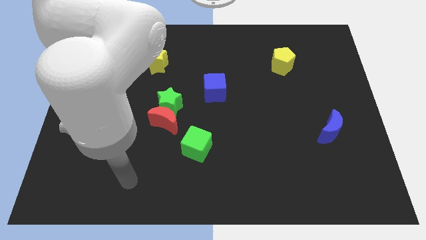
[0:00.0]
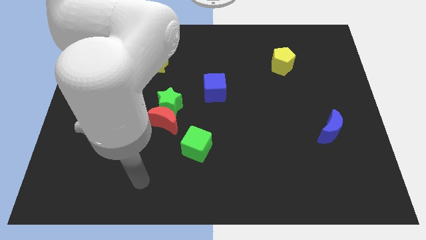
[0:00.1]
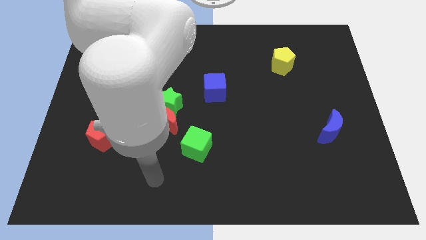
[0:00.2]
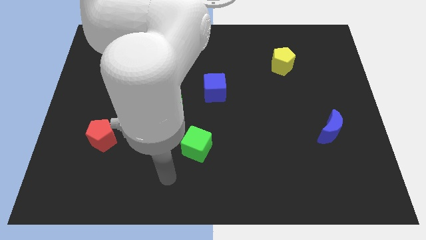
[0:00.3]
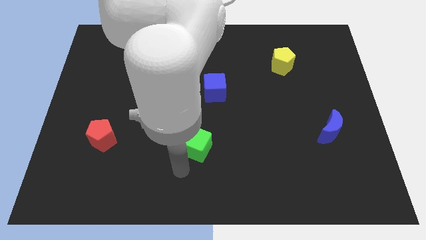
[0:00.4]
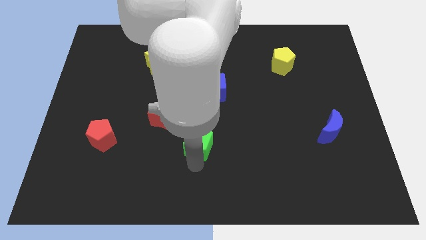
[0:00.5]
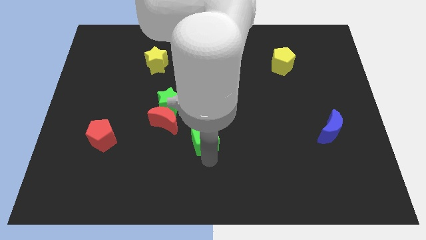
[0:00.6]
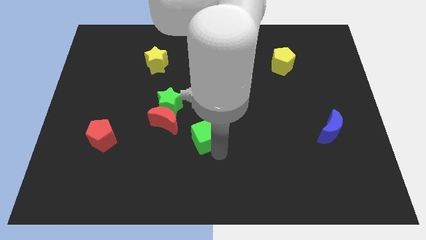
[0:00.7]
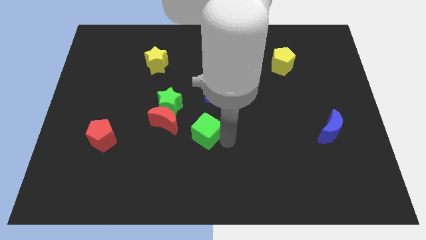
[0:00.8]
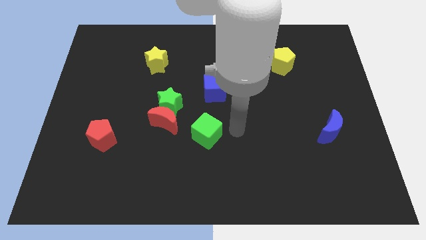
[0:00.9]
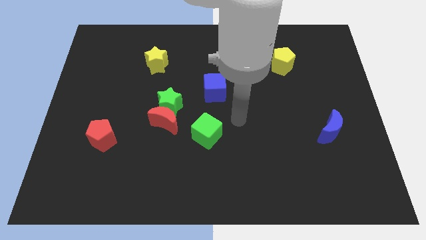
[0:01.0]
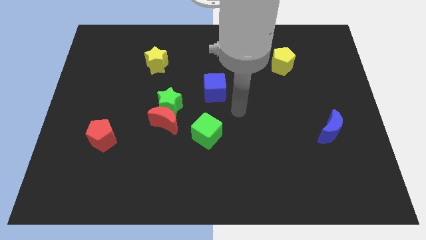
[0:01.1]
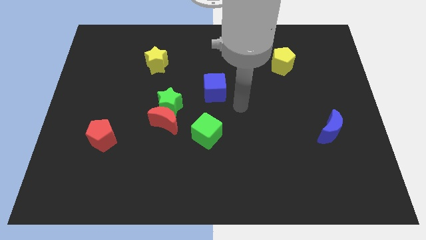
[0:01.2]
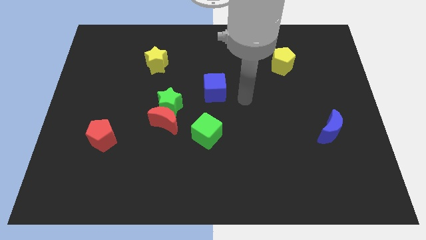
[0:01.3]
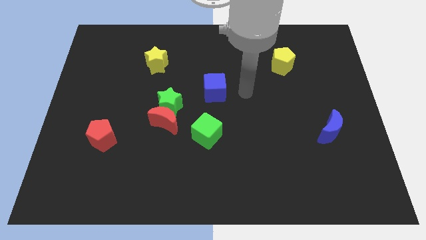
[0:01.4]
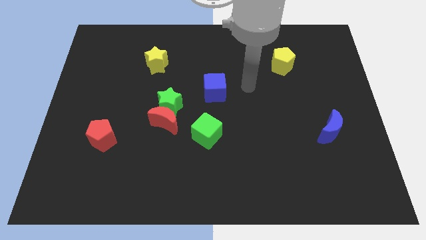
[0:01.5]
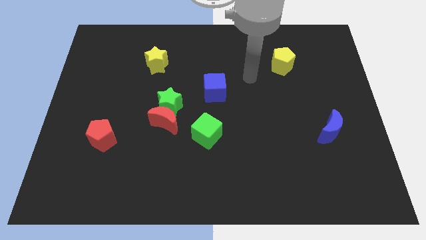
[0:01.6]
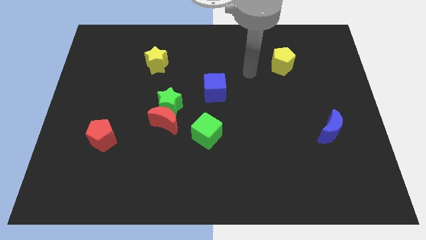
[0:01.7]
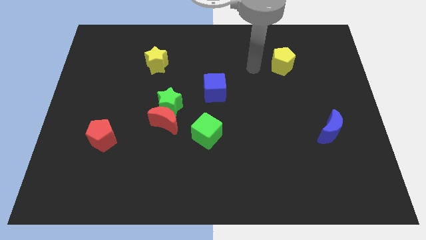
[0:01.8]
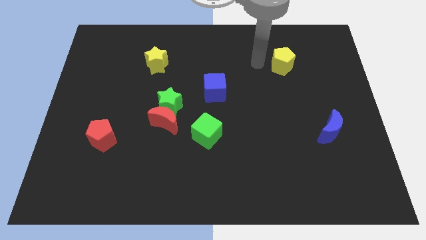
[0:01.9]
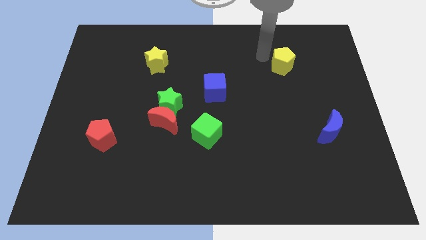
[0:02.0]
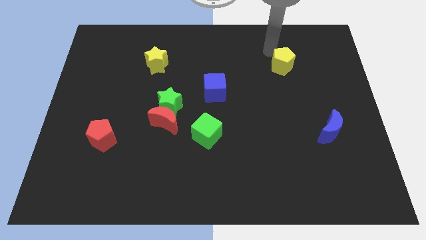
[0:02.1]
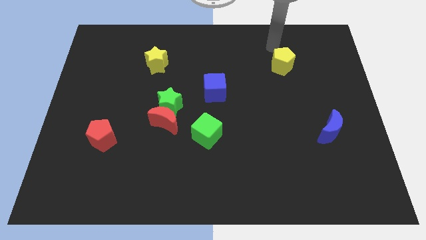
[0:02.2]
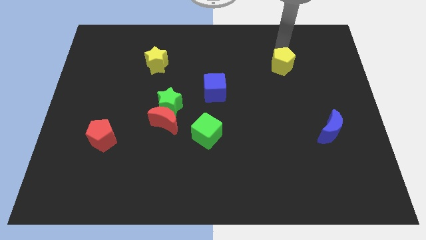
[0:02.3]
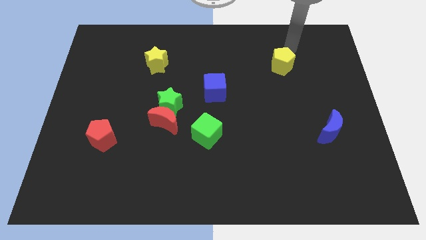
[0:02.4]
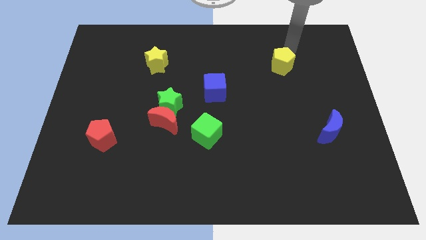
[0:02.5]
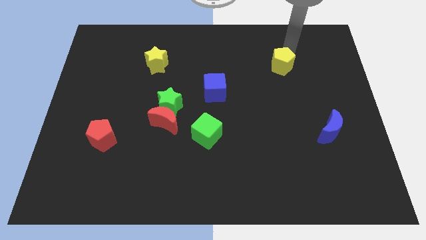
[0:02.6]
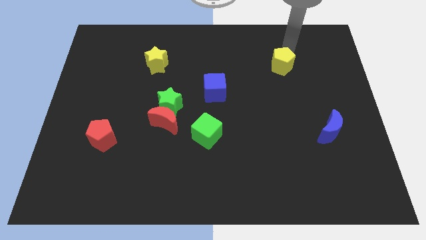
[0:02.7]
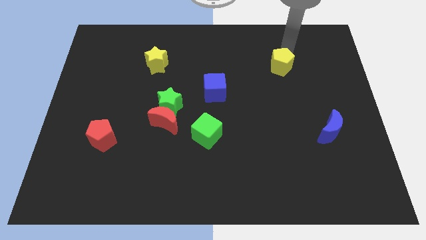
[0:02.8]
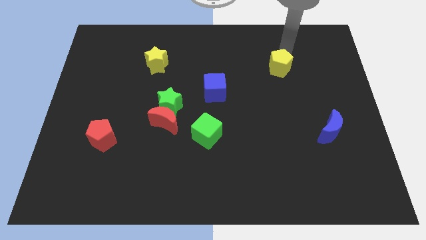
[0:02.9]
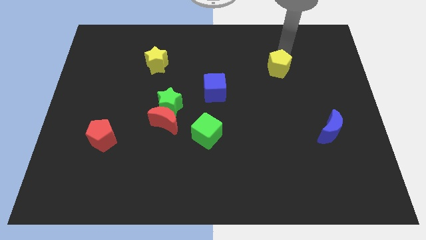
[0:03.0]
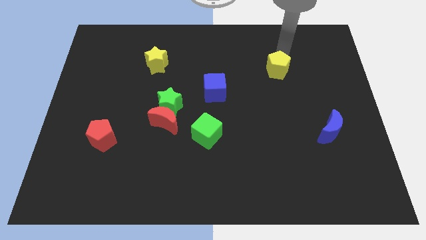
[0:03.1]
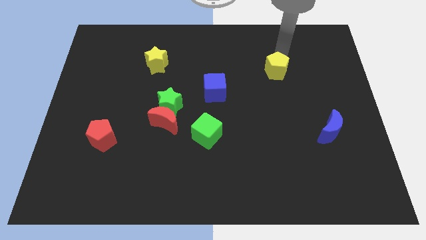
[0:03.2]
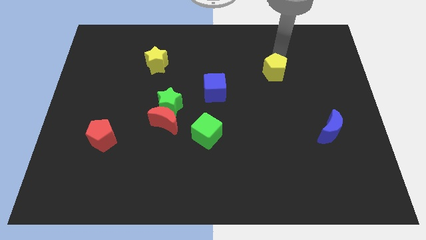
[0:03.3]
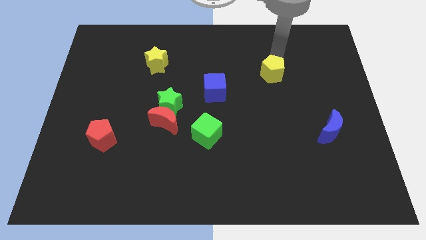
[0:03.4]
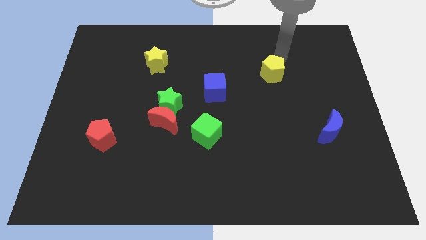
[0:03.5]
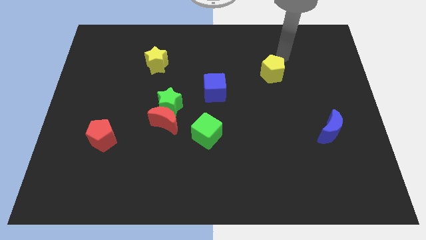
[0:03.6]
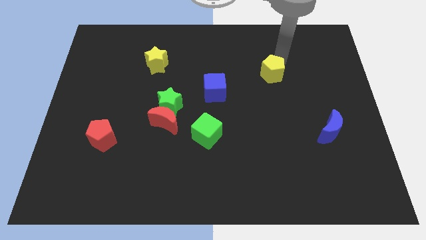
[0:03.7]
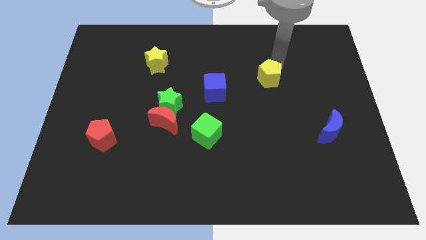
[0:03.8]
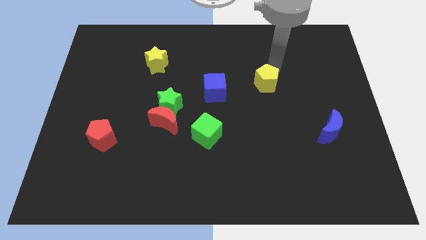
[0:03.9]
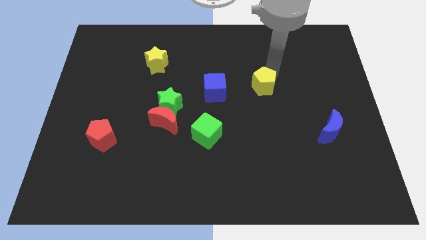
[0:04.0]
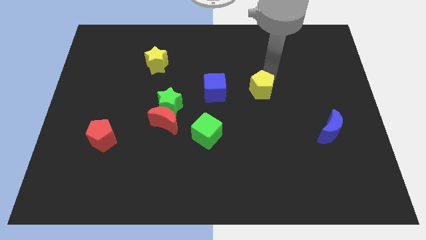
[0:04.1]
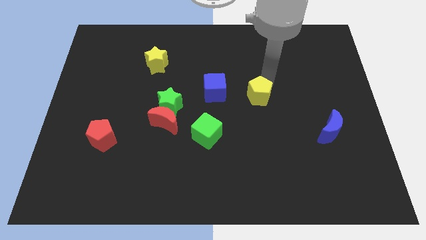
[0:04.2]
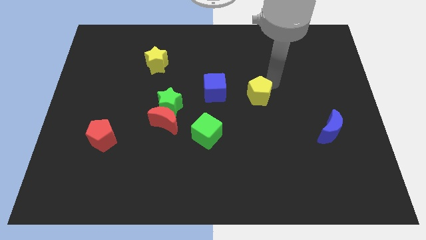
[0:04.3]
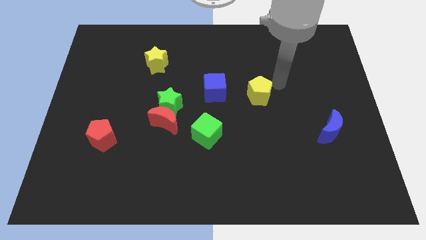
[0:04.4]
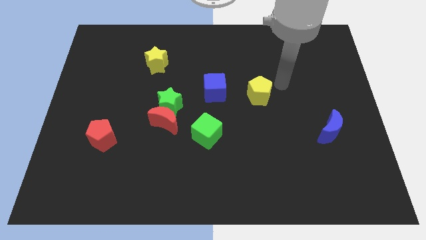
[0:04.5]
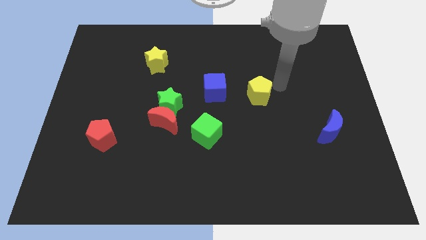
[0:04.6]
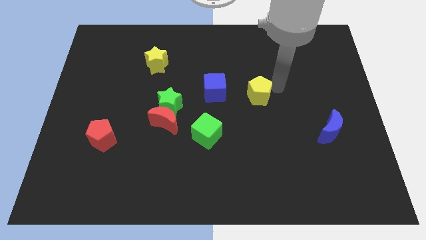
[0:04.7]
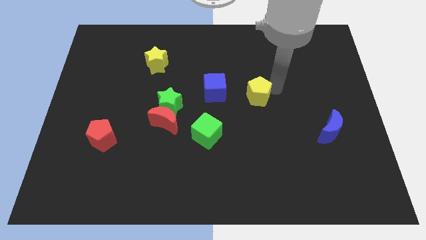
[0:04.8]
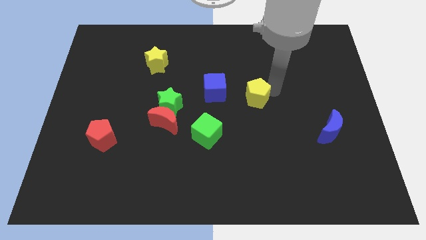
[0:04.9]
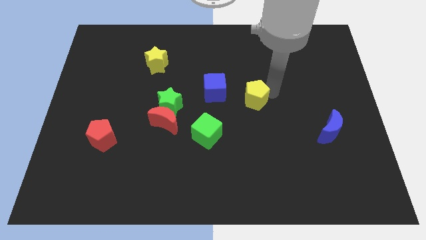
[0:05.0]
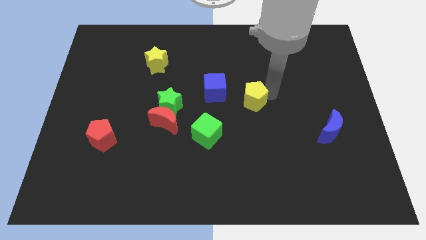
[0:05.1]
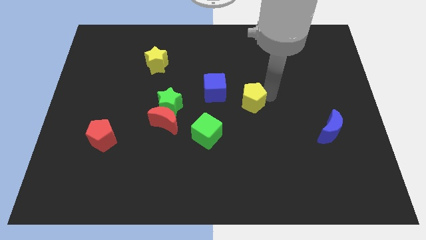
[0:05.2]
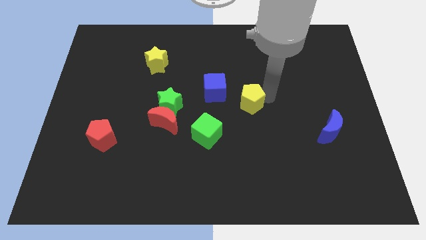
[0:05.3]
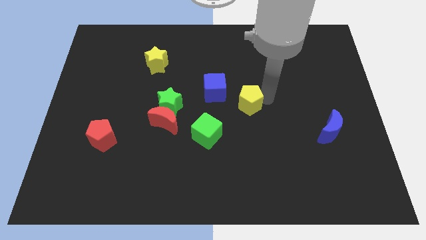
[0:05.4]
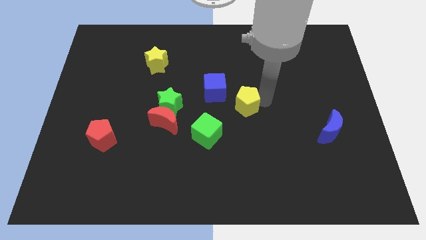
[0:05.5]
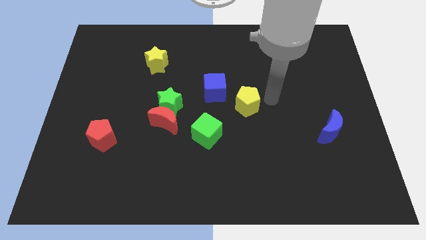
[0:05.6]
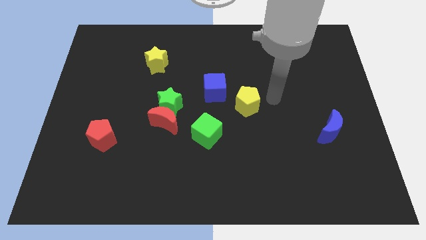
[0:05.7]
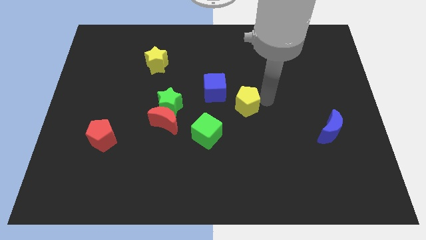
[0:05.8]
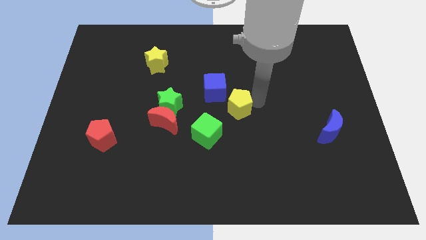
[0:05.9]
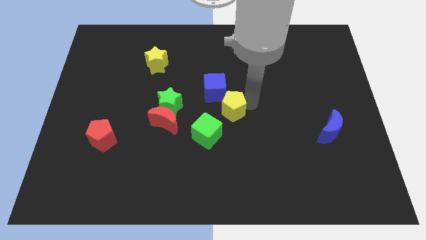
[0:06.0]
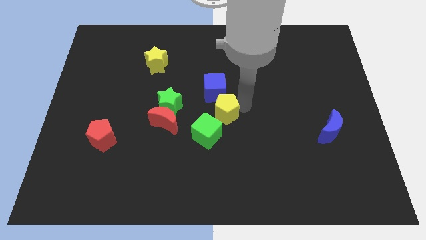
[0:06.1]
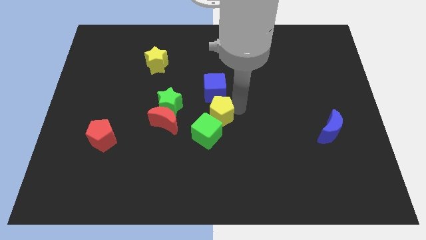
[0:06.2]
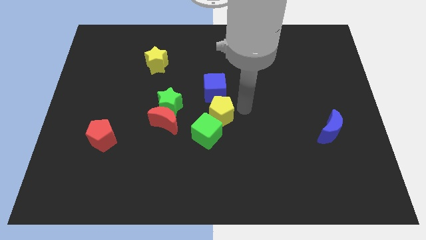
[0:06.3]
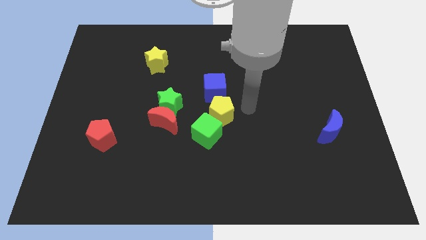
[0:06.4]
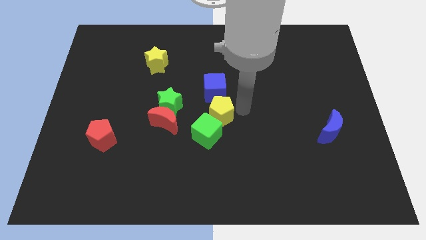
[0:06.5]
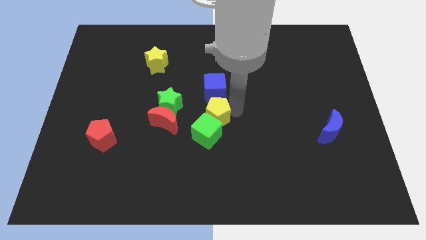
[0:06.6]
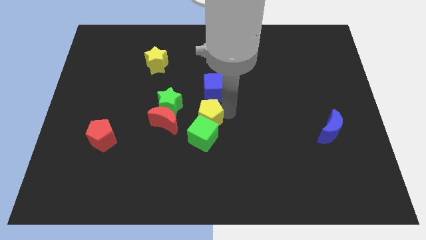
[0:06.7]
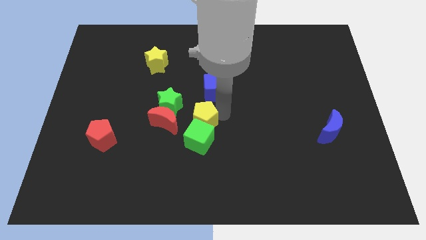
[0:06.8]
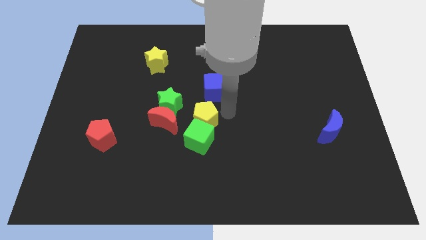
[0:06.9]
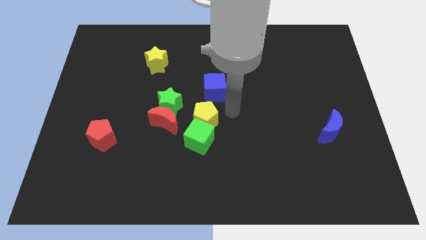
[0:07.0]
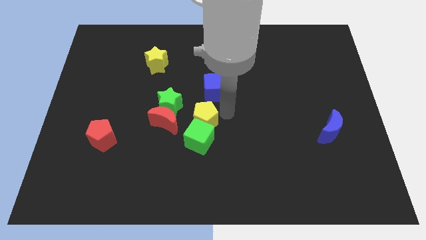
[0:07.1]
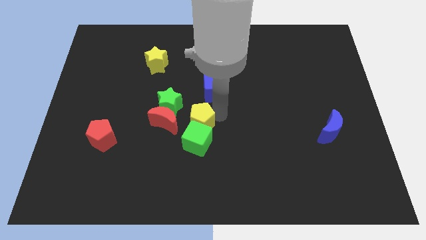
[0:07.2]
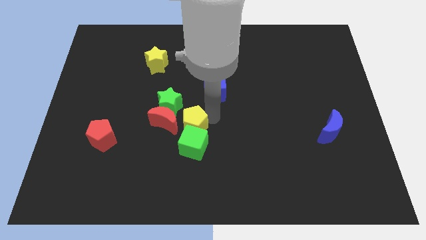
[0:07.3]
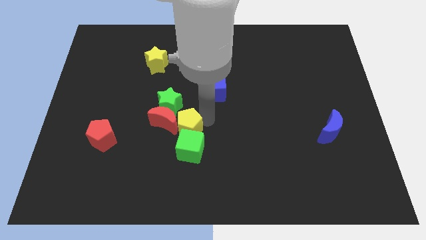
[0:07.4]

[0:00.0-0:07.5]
move the yellow pentagon to the red moon
